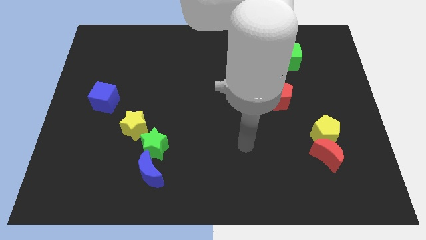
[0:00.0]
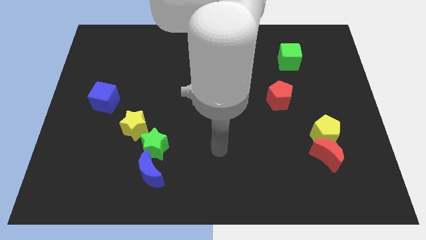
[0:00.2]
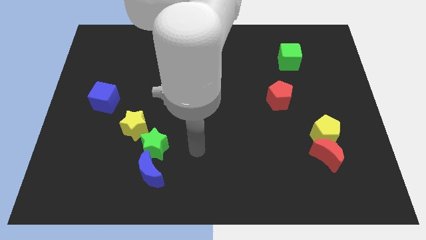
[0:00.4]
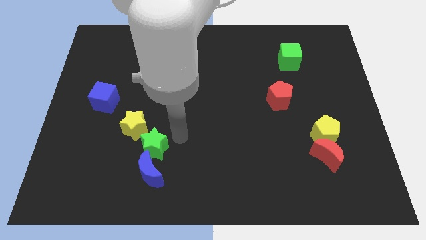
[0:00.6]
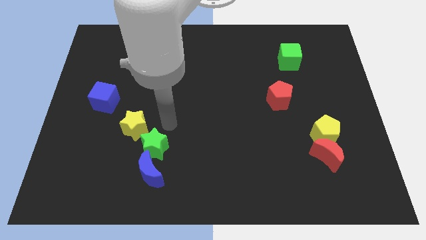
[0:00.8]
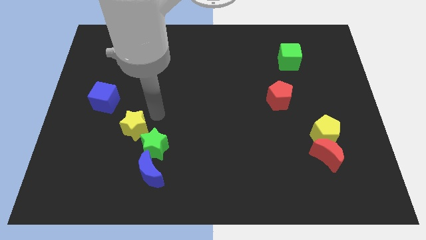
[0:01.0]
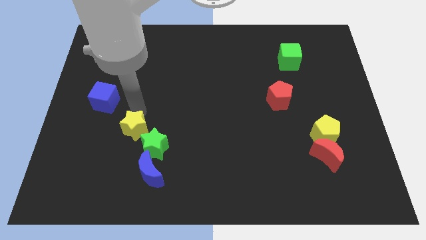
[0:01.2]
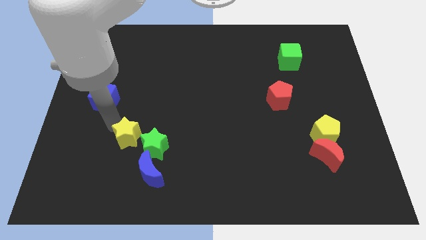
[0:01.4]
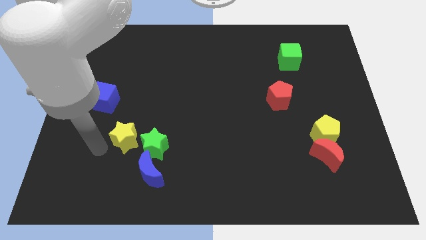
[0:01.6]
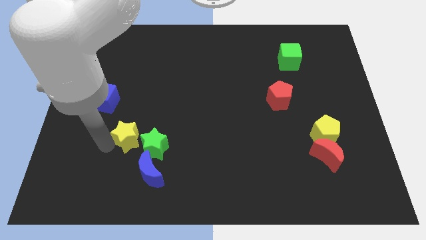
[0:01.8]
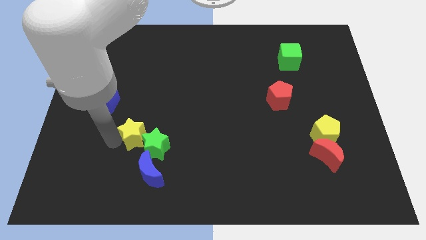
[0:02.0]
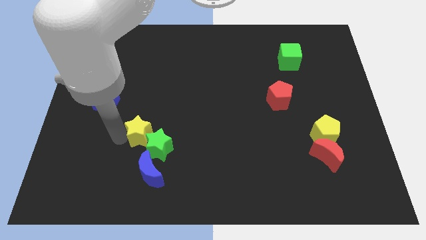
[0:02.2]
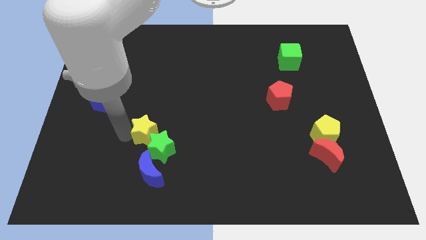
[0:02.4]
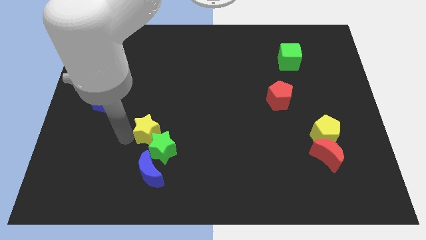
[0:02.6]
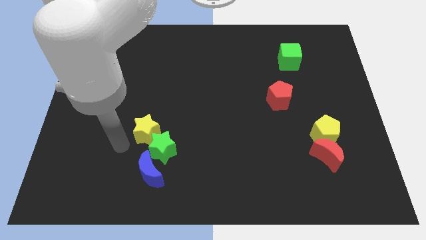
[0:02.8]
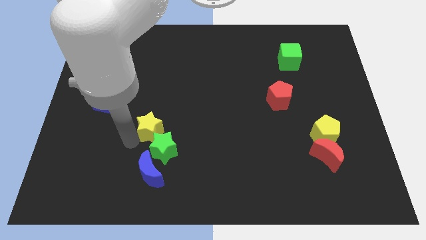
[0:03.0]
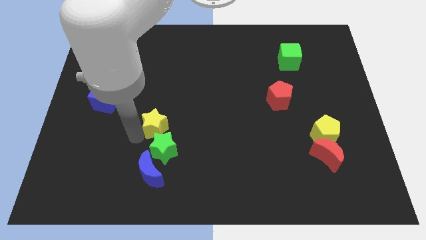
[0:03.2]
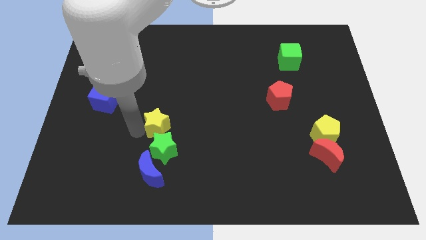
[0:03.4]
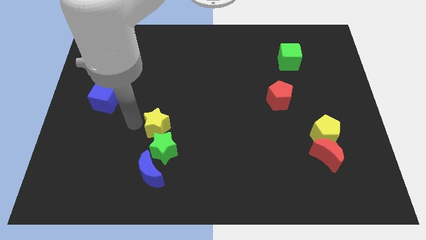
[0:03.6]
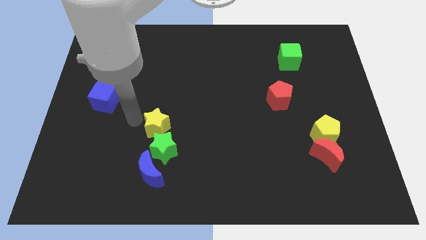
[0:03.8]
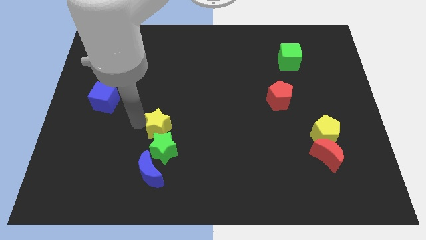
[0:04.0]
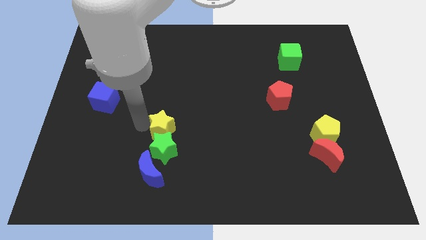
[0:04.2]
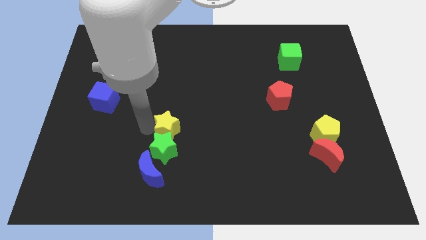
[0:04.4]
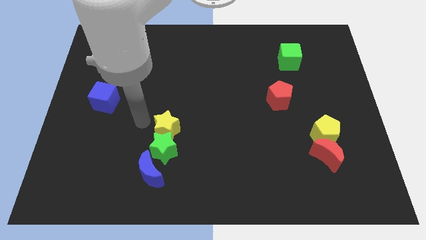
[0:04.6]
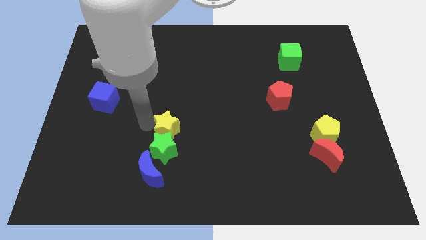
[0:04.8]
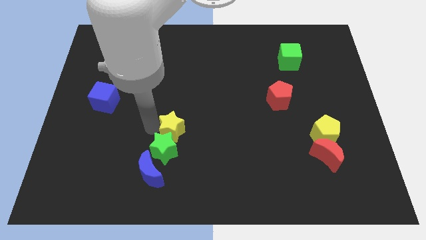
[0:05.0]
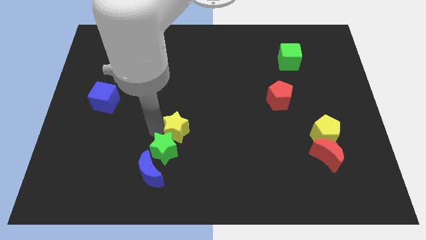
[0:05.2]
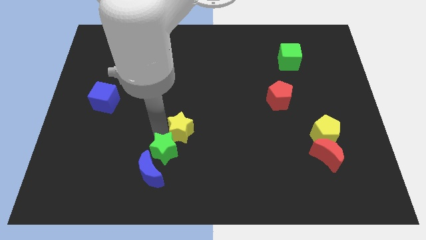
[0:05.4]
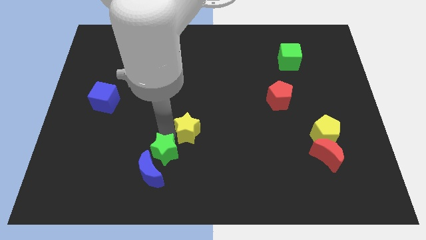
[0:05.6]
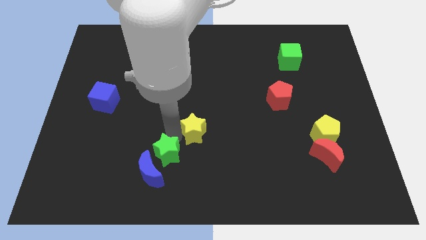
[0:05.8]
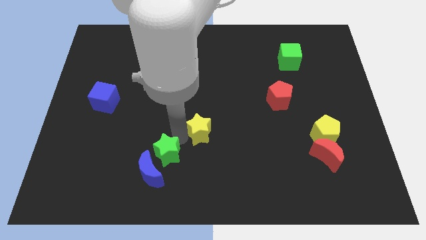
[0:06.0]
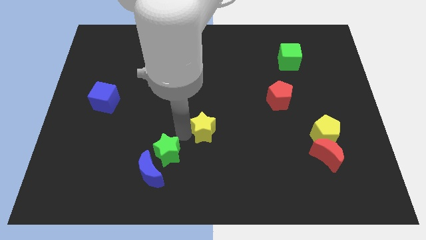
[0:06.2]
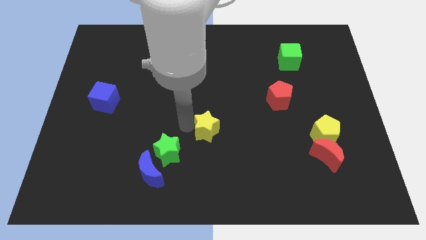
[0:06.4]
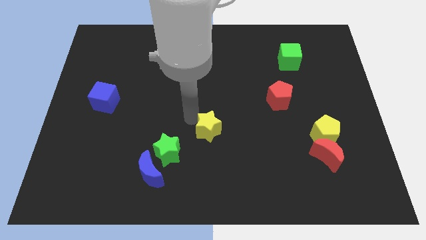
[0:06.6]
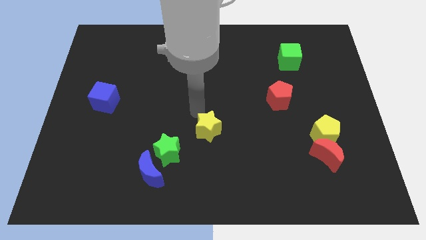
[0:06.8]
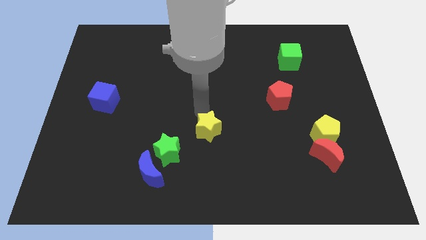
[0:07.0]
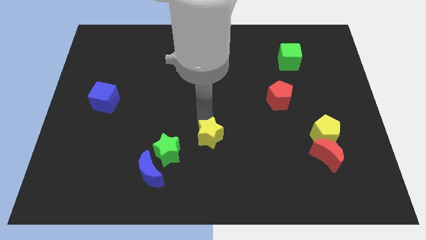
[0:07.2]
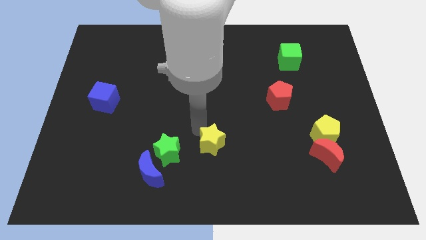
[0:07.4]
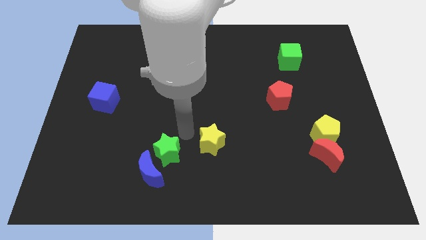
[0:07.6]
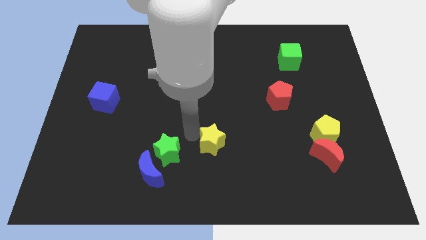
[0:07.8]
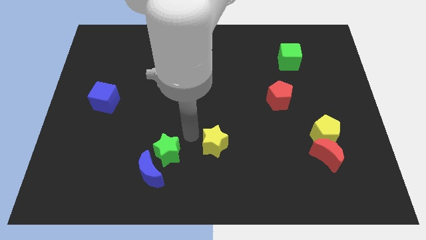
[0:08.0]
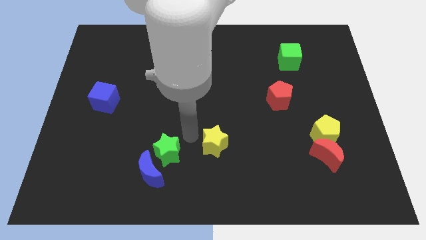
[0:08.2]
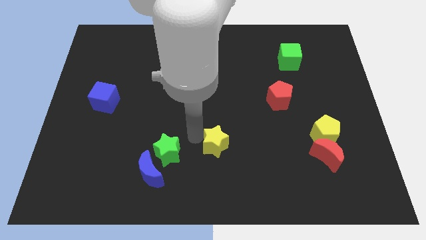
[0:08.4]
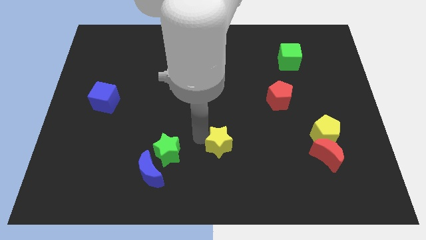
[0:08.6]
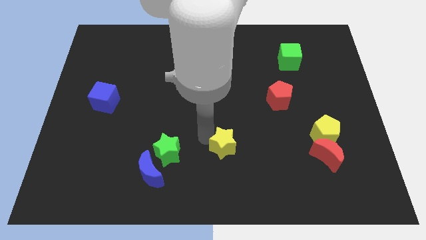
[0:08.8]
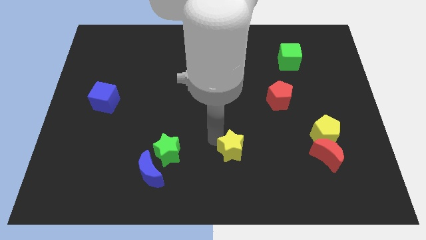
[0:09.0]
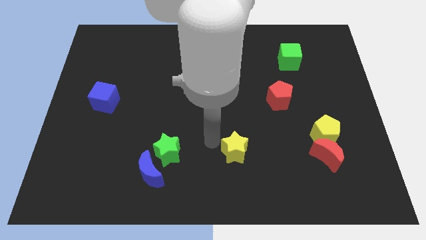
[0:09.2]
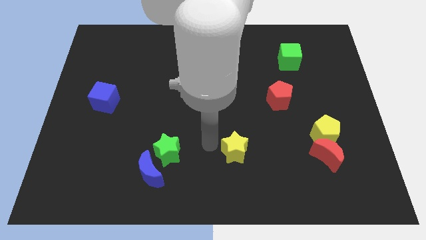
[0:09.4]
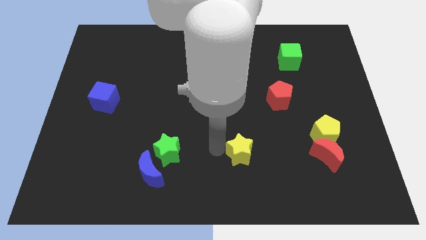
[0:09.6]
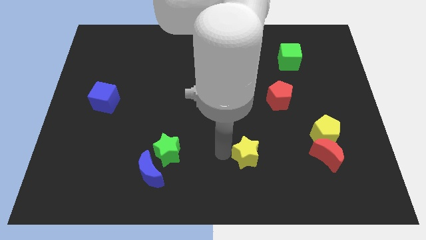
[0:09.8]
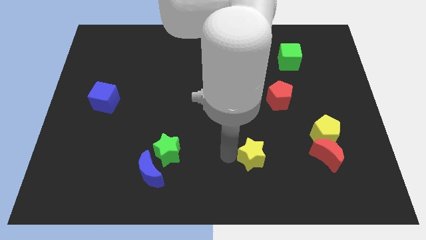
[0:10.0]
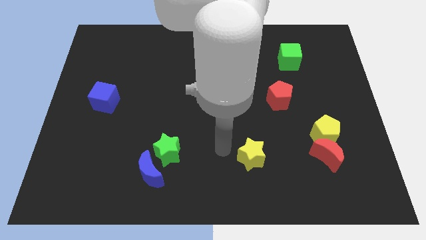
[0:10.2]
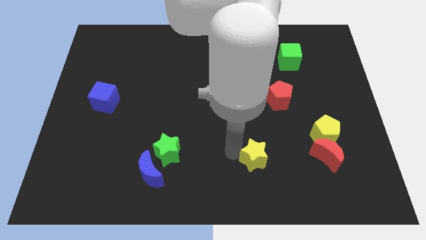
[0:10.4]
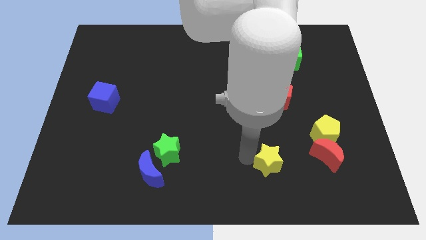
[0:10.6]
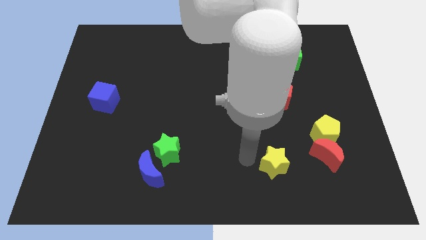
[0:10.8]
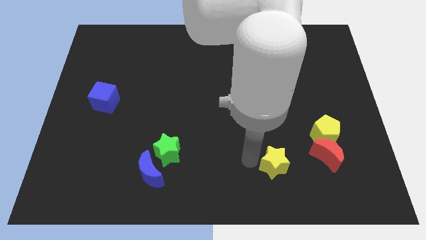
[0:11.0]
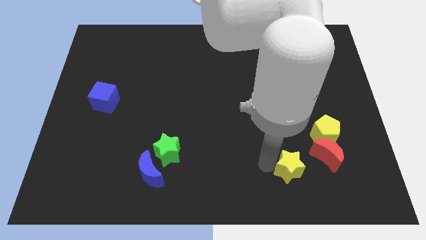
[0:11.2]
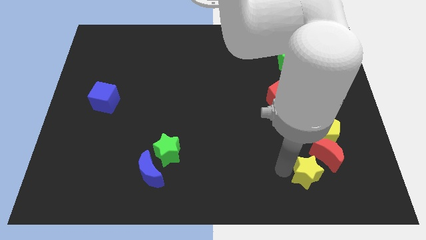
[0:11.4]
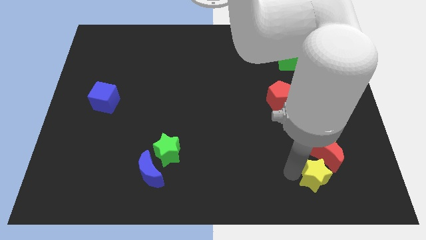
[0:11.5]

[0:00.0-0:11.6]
push the yellow star below the yellow pentagon

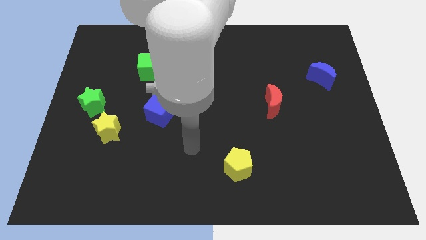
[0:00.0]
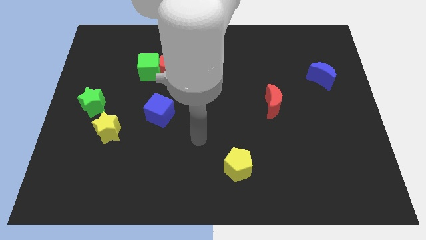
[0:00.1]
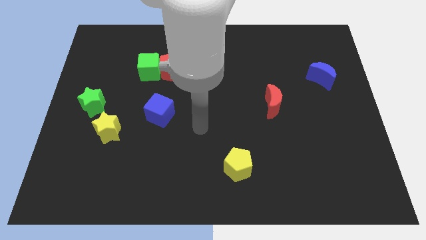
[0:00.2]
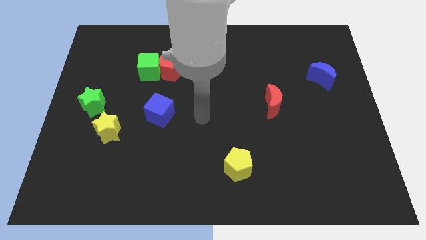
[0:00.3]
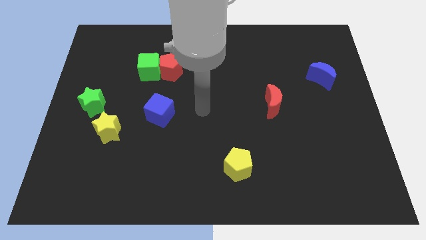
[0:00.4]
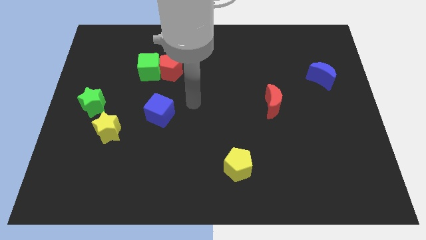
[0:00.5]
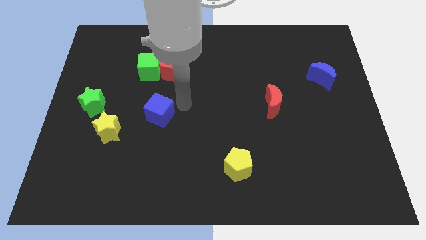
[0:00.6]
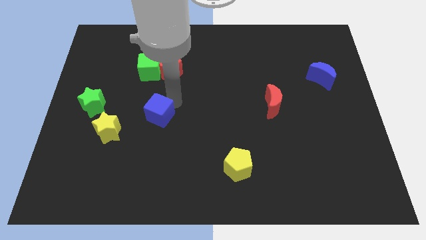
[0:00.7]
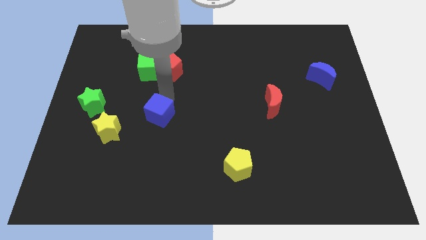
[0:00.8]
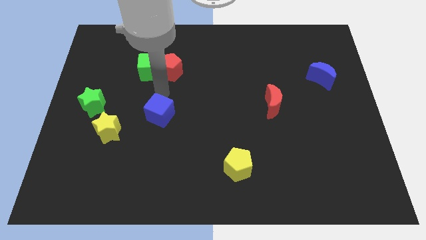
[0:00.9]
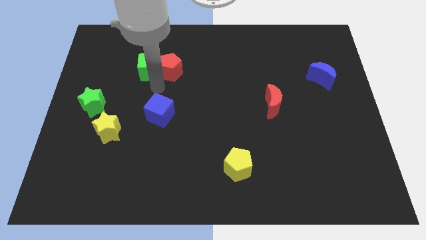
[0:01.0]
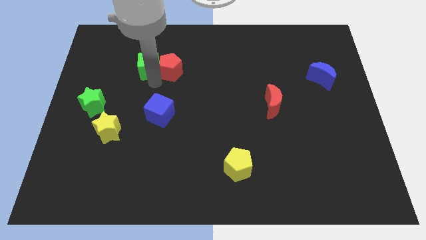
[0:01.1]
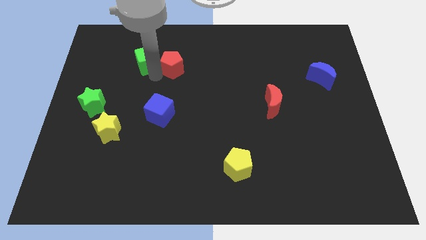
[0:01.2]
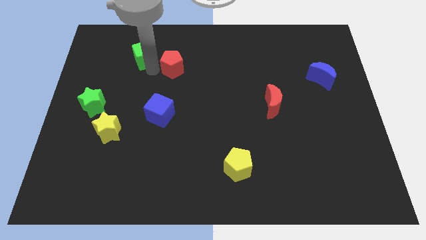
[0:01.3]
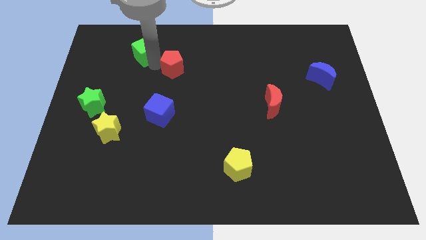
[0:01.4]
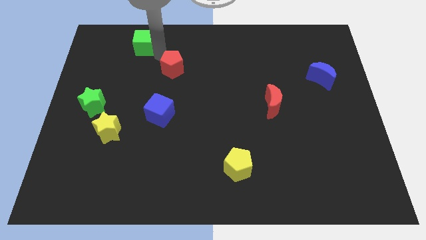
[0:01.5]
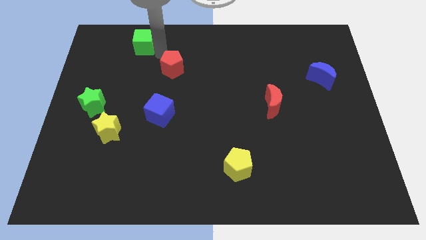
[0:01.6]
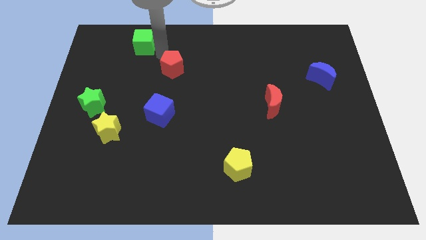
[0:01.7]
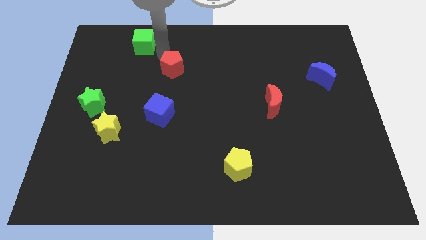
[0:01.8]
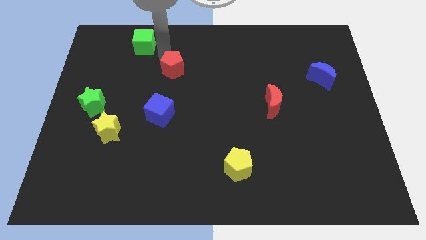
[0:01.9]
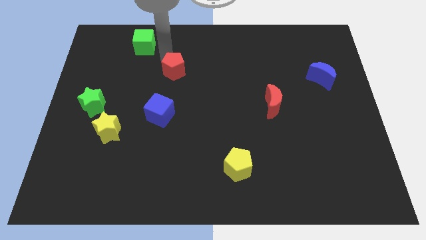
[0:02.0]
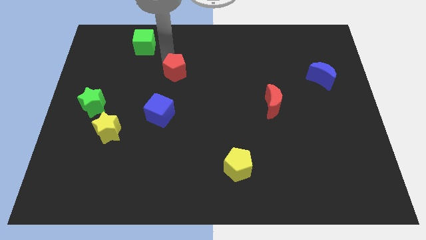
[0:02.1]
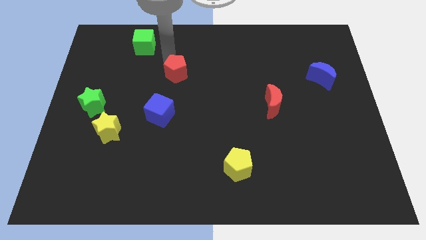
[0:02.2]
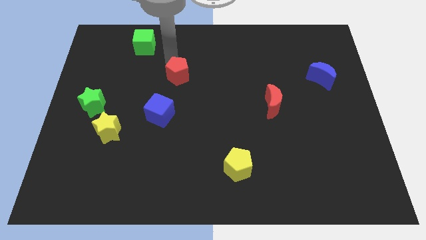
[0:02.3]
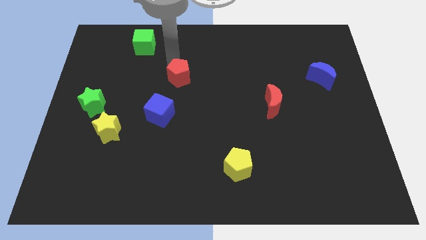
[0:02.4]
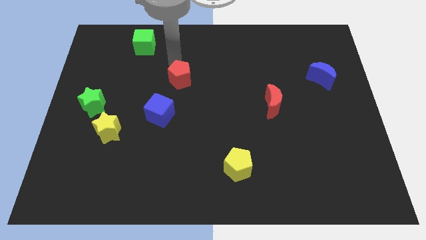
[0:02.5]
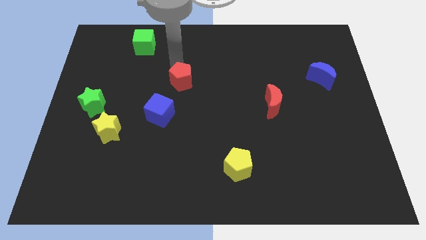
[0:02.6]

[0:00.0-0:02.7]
put the red pentagon diagonally up and to the right of the blue cube
